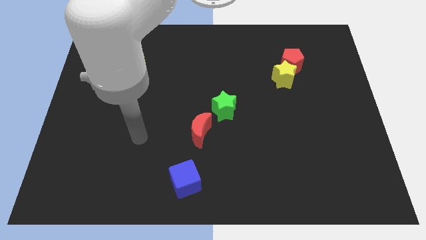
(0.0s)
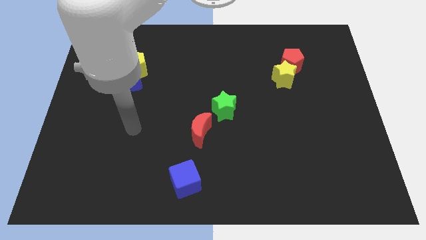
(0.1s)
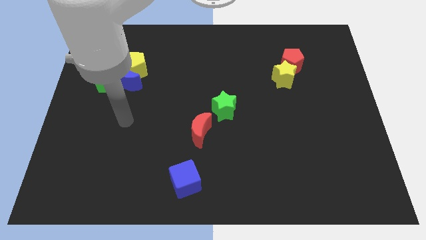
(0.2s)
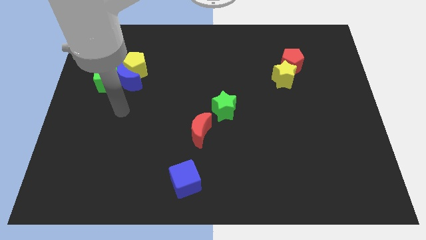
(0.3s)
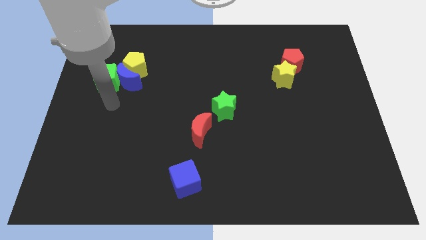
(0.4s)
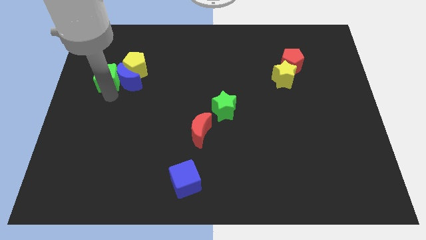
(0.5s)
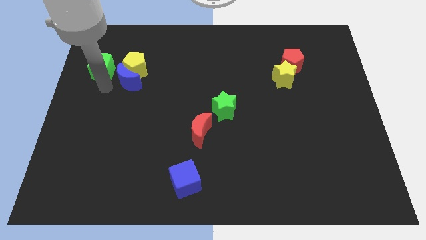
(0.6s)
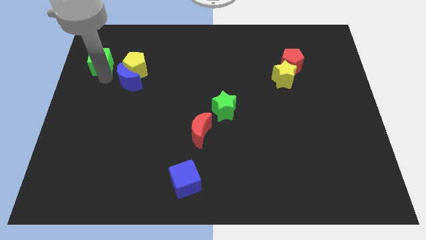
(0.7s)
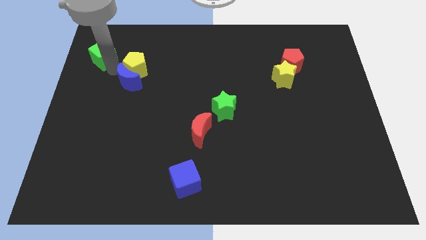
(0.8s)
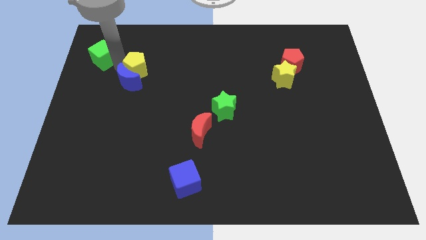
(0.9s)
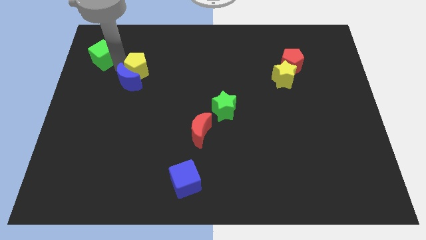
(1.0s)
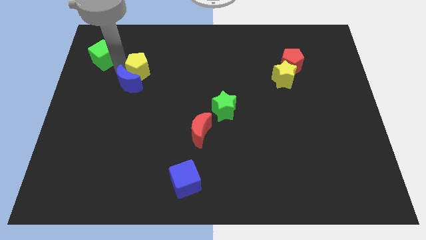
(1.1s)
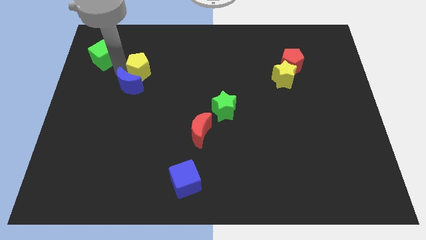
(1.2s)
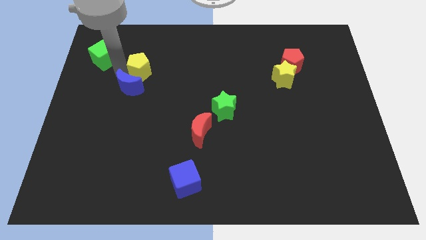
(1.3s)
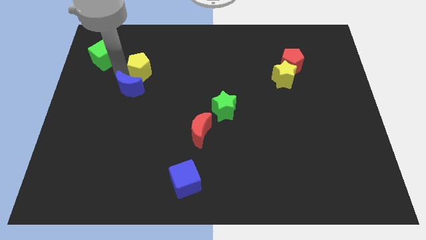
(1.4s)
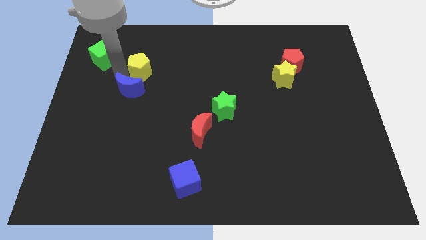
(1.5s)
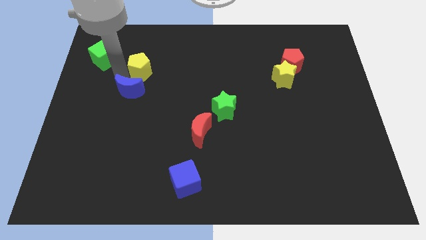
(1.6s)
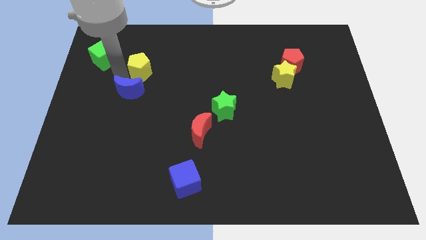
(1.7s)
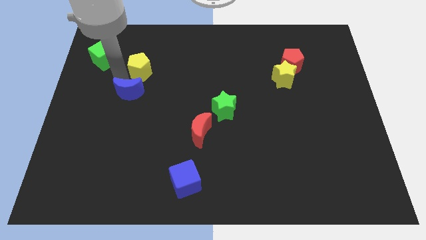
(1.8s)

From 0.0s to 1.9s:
separate the blue moon from the yellow pentagon and green cube

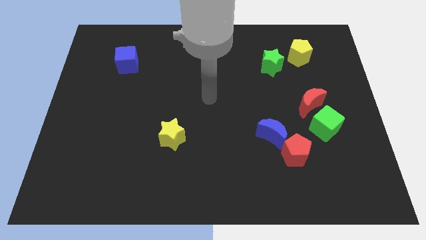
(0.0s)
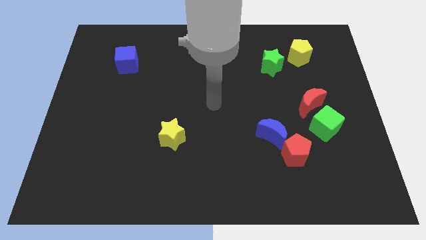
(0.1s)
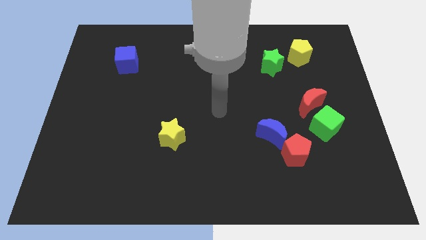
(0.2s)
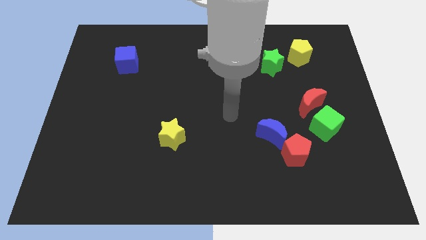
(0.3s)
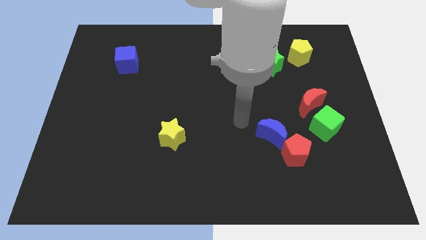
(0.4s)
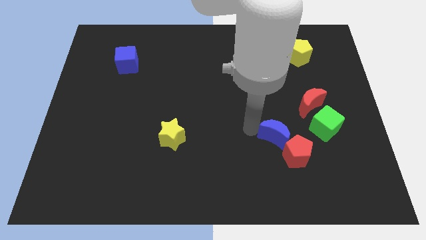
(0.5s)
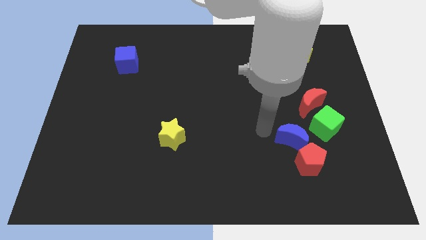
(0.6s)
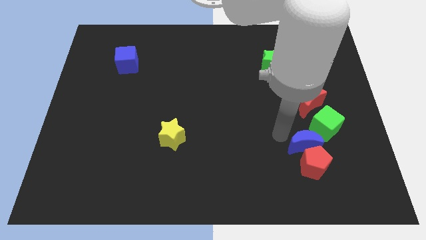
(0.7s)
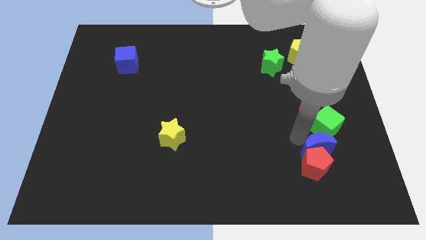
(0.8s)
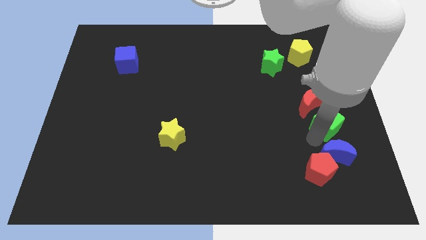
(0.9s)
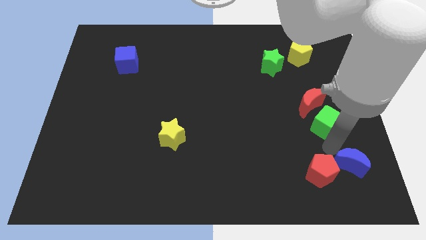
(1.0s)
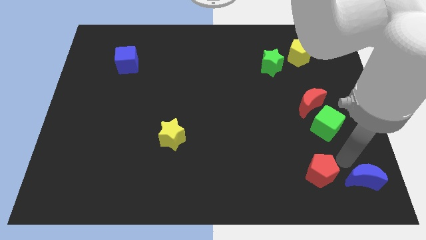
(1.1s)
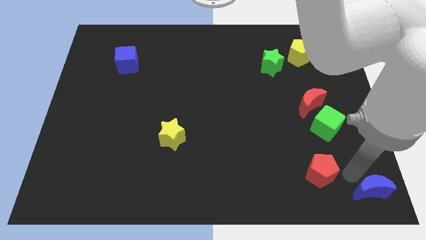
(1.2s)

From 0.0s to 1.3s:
pull the red pentagon apart from the blue moon

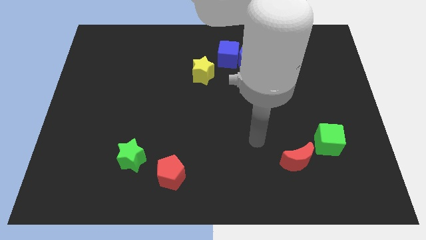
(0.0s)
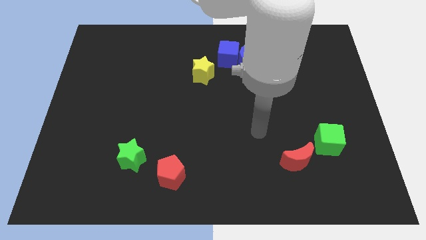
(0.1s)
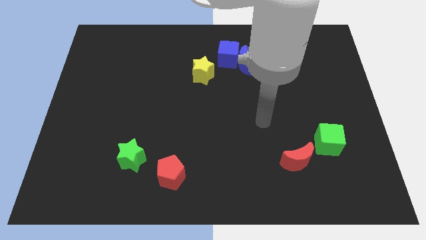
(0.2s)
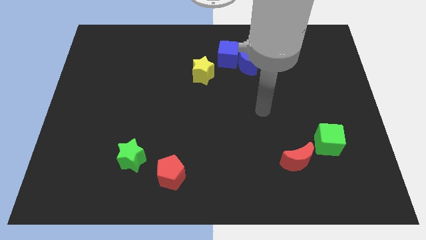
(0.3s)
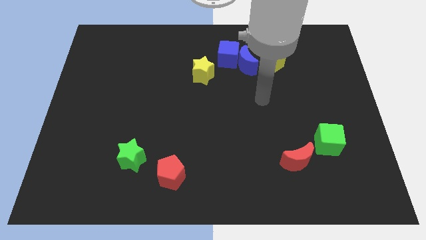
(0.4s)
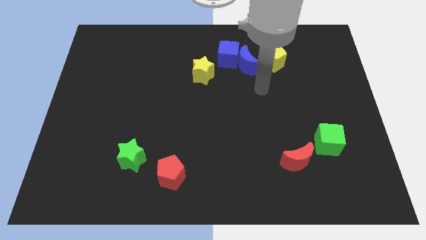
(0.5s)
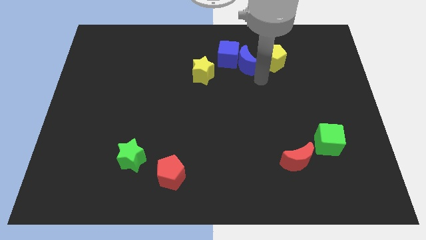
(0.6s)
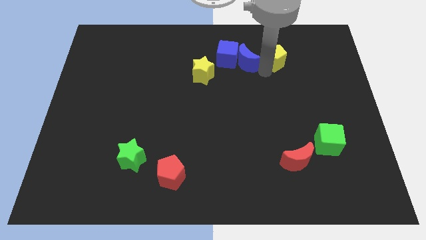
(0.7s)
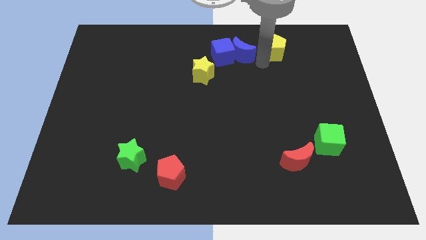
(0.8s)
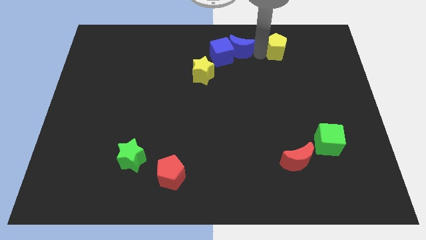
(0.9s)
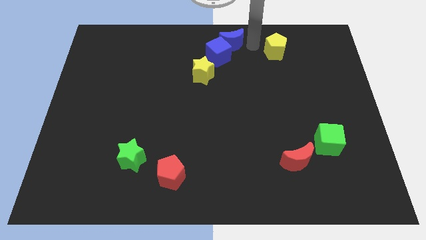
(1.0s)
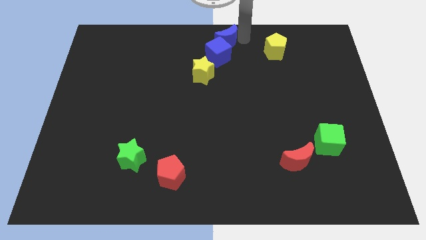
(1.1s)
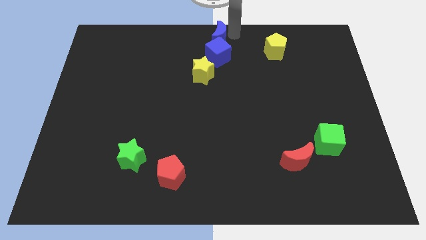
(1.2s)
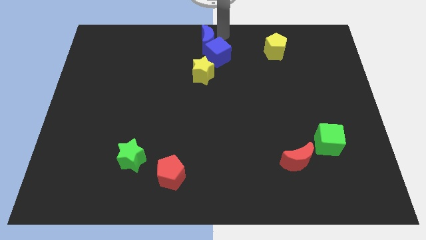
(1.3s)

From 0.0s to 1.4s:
move the blue moon away from the blue cube and yellow pentagon

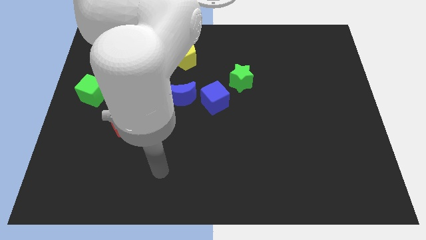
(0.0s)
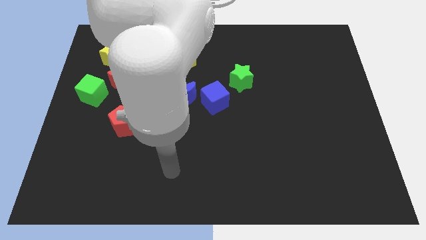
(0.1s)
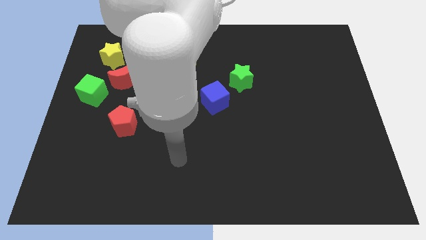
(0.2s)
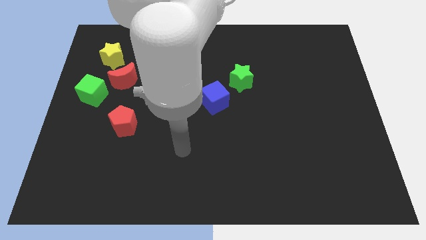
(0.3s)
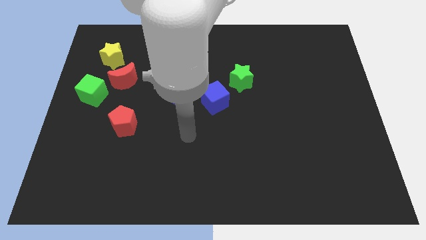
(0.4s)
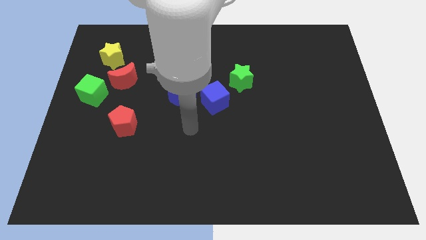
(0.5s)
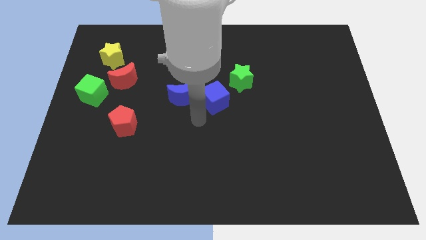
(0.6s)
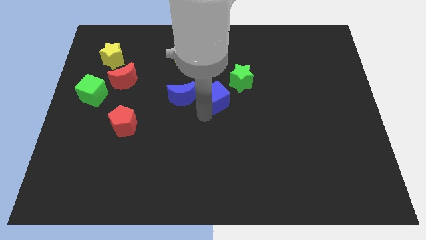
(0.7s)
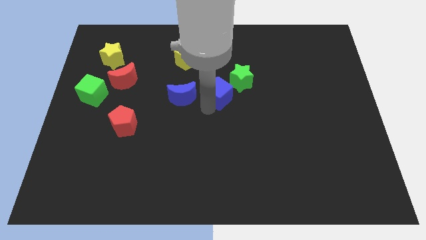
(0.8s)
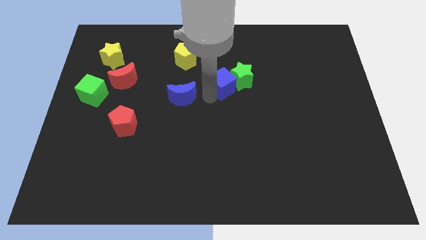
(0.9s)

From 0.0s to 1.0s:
separate the blue moon from the blue cube

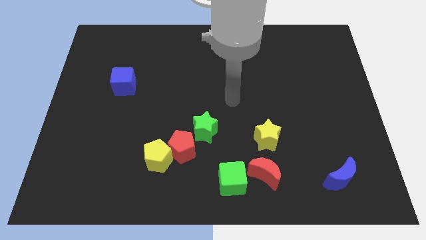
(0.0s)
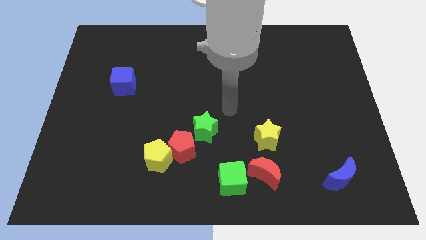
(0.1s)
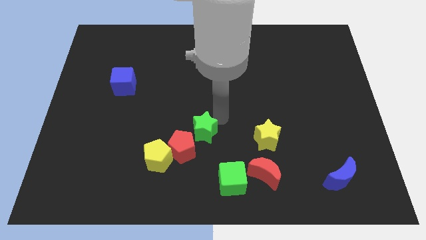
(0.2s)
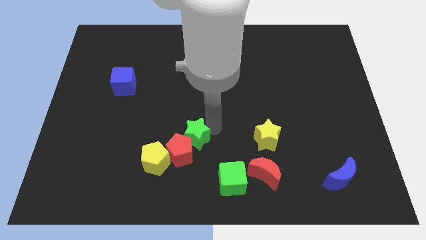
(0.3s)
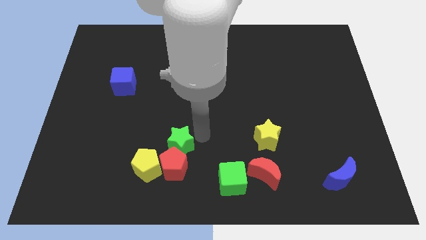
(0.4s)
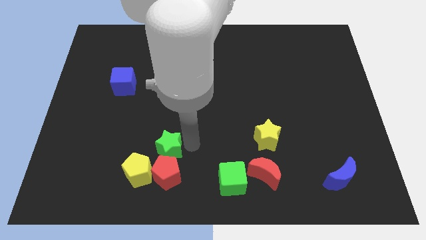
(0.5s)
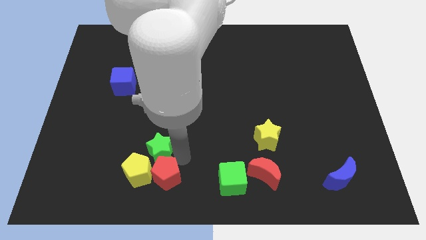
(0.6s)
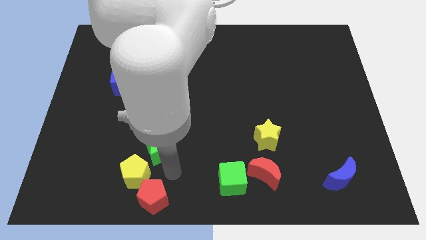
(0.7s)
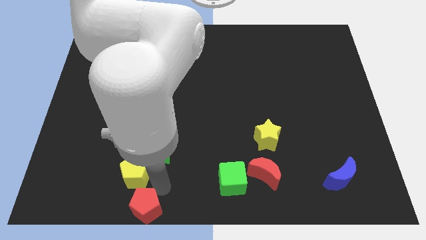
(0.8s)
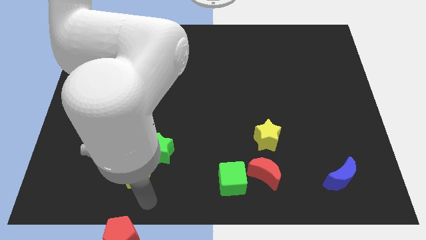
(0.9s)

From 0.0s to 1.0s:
separate the yellow pentagon from the red pentagon

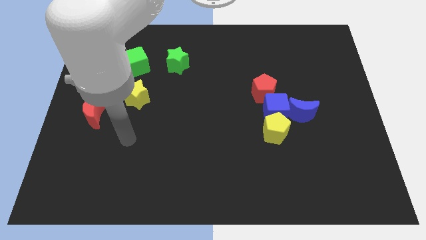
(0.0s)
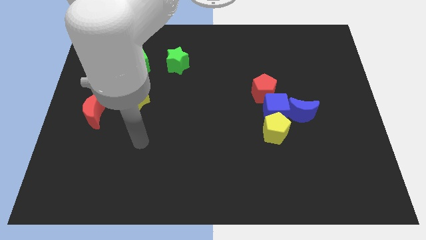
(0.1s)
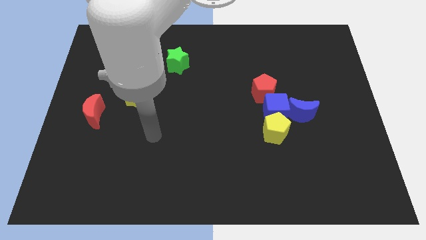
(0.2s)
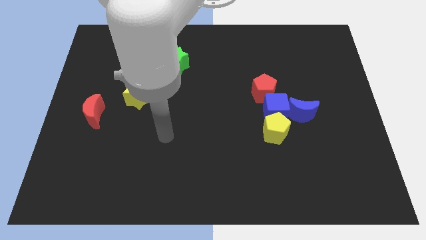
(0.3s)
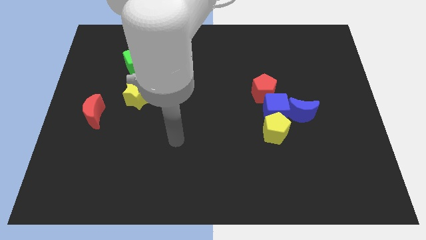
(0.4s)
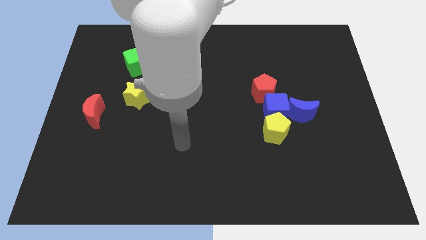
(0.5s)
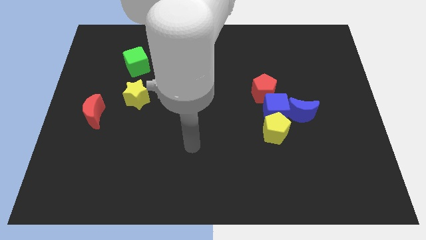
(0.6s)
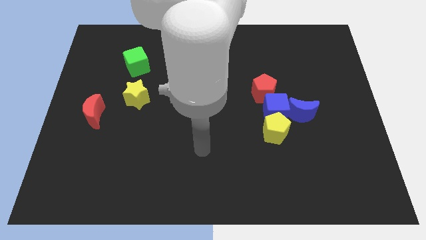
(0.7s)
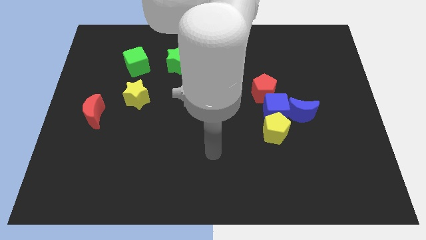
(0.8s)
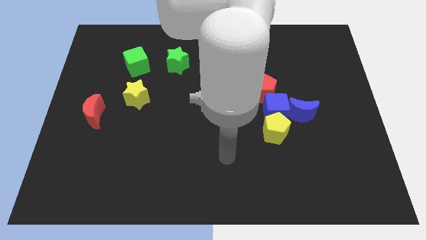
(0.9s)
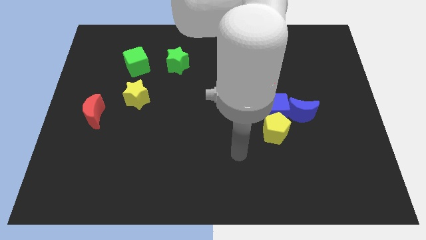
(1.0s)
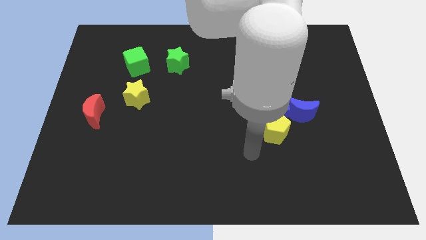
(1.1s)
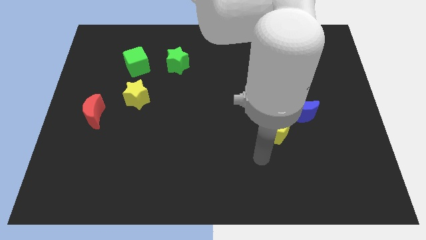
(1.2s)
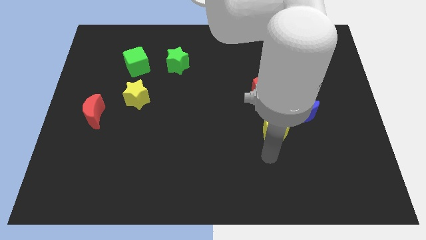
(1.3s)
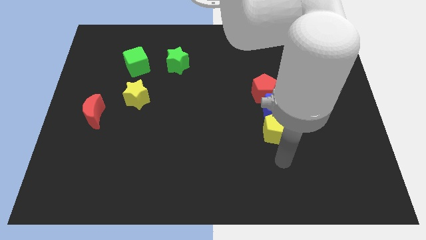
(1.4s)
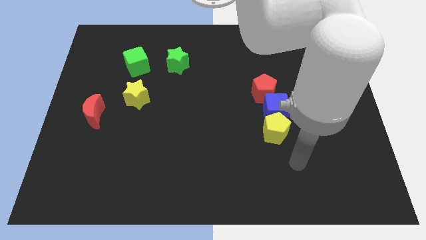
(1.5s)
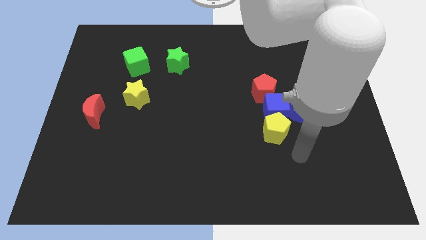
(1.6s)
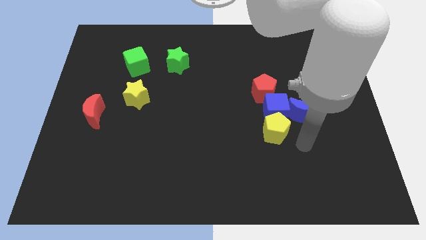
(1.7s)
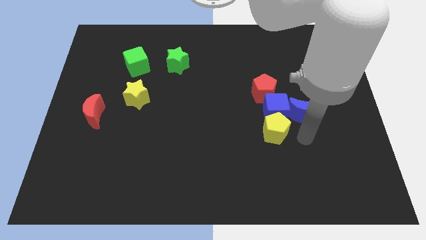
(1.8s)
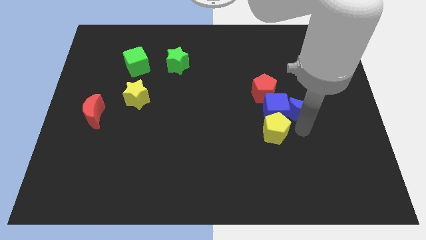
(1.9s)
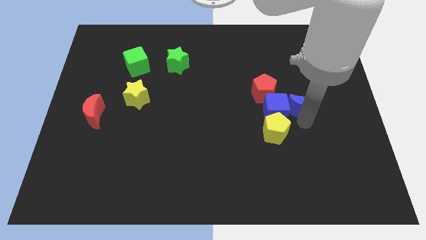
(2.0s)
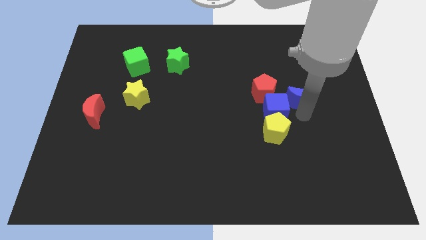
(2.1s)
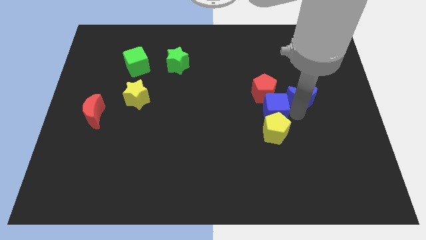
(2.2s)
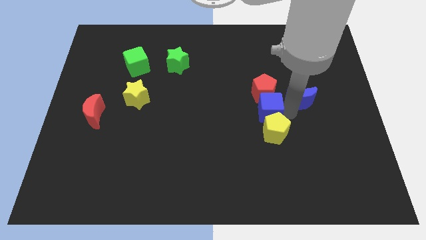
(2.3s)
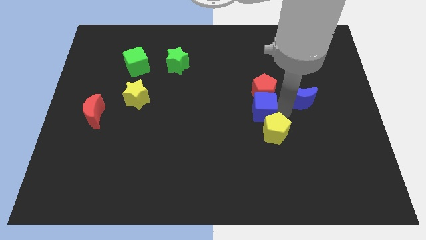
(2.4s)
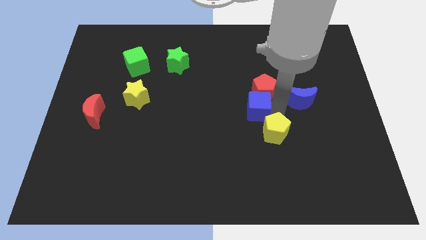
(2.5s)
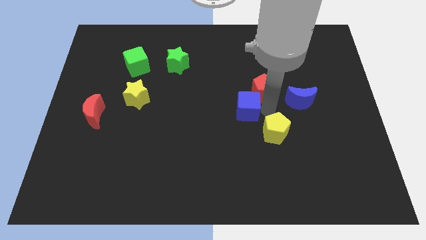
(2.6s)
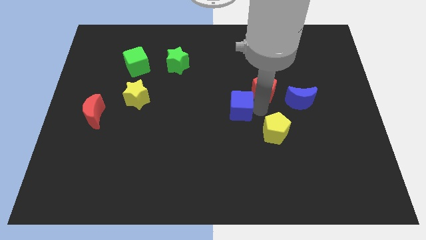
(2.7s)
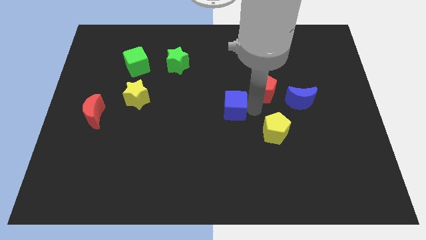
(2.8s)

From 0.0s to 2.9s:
separate the blue cube from the group

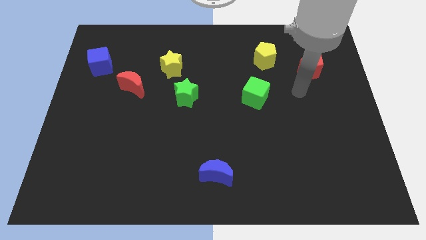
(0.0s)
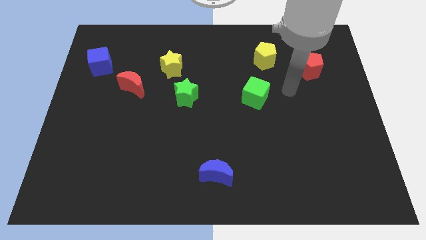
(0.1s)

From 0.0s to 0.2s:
separate the green star from the yellow star
